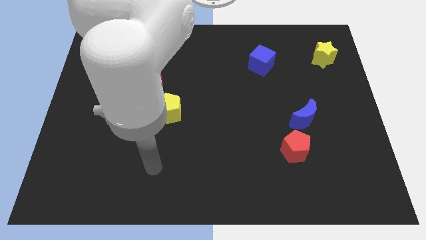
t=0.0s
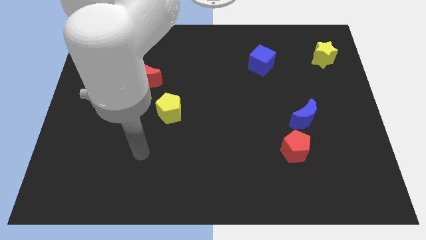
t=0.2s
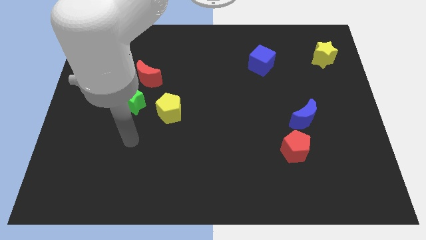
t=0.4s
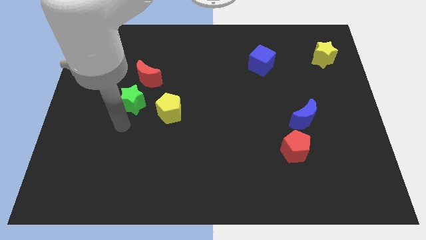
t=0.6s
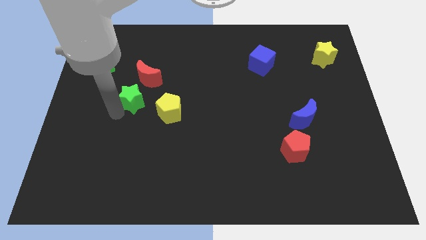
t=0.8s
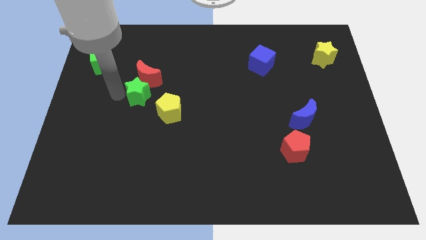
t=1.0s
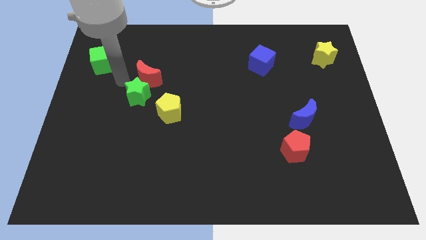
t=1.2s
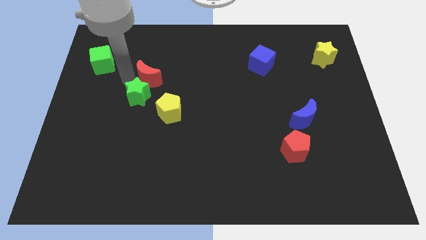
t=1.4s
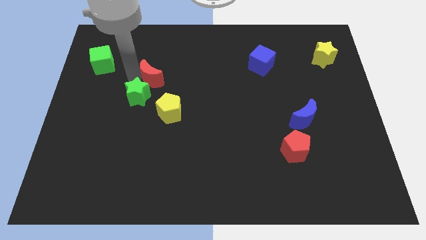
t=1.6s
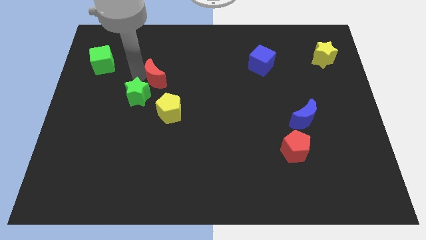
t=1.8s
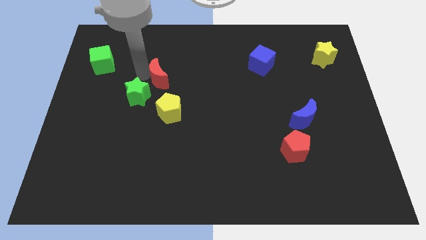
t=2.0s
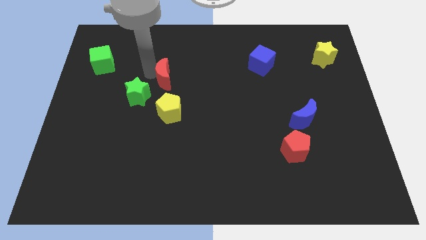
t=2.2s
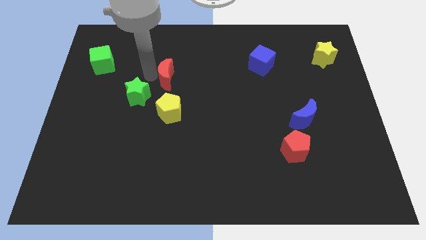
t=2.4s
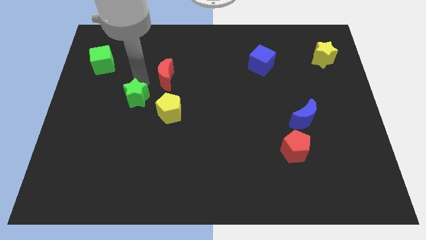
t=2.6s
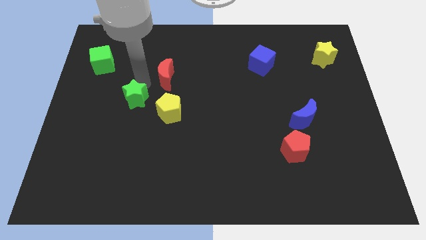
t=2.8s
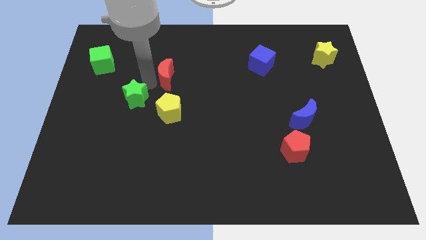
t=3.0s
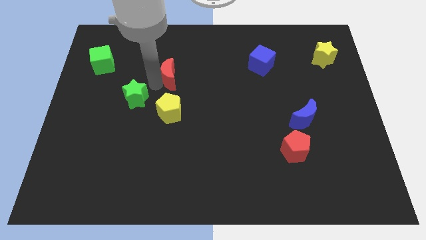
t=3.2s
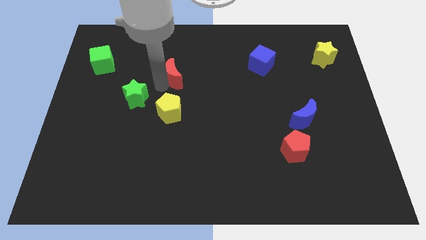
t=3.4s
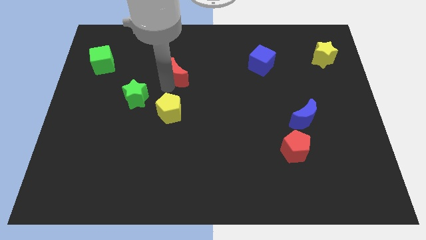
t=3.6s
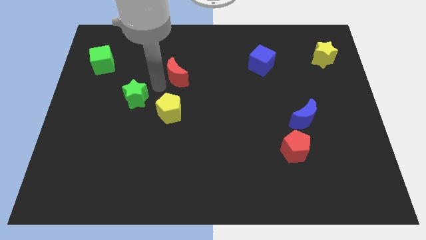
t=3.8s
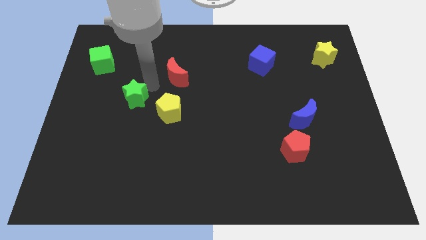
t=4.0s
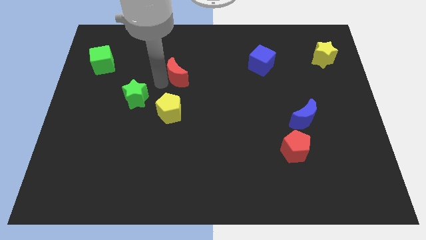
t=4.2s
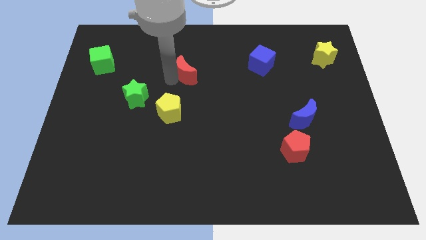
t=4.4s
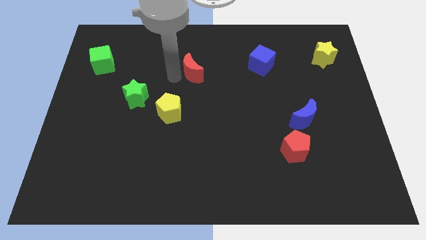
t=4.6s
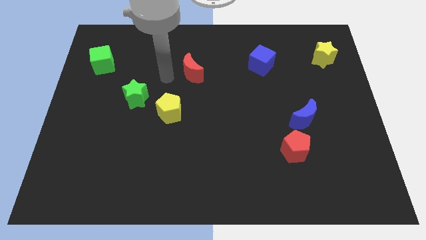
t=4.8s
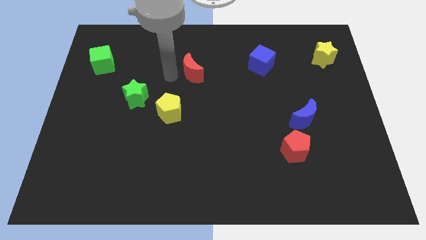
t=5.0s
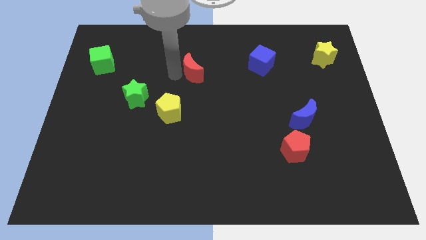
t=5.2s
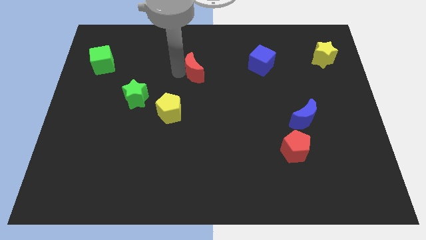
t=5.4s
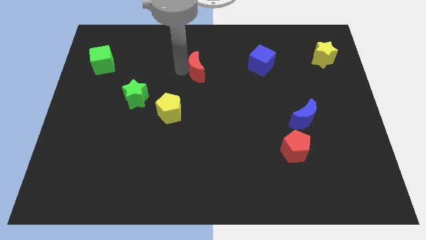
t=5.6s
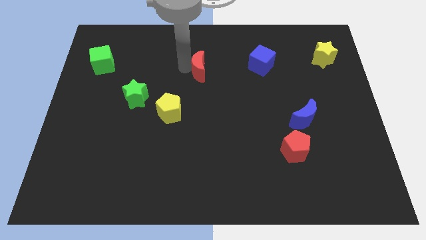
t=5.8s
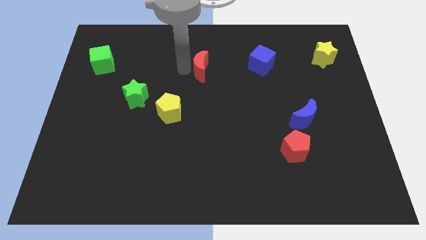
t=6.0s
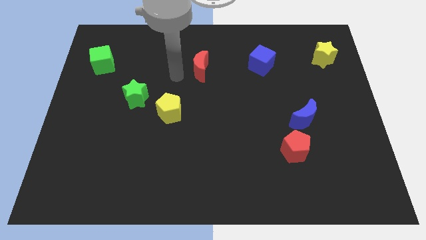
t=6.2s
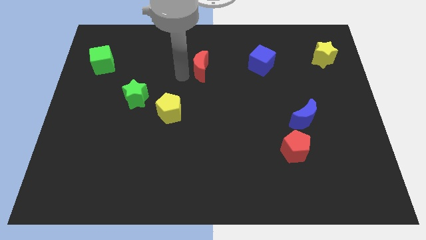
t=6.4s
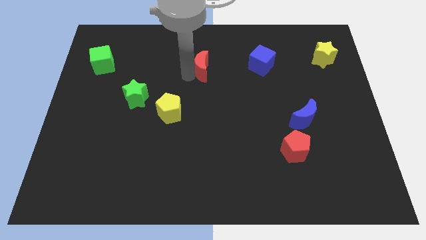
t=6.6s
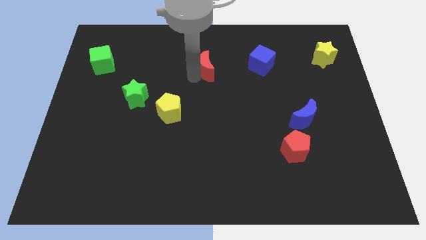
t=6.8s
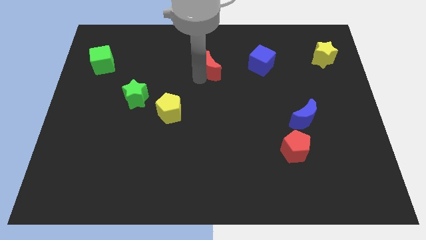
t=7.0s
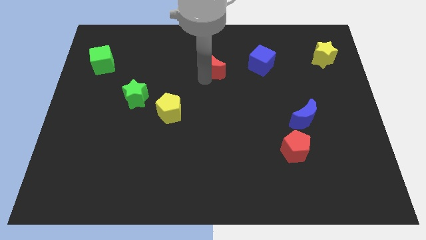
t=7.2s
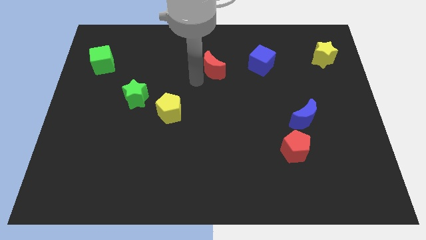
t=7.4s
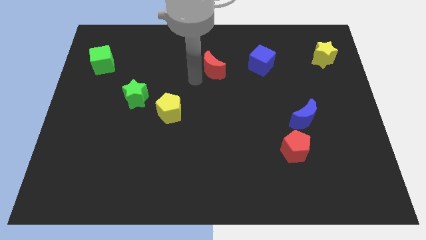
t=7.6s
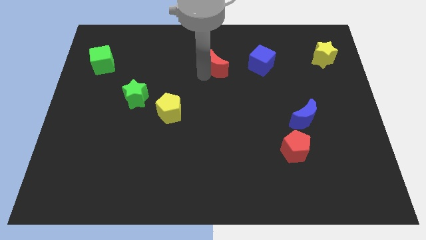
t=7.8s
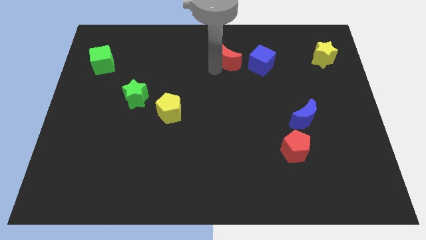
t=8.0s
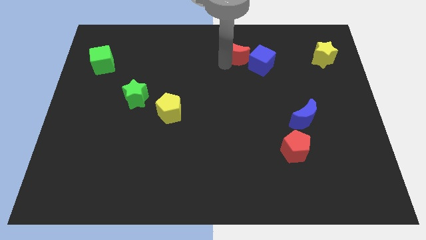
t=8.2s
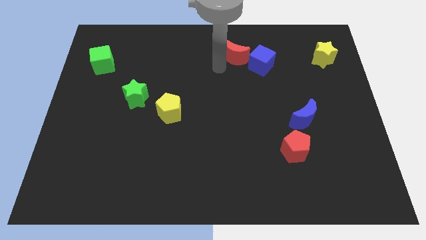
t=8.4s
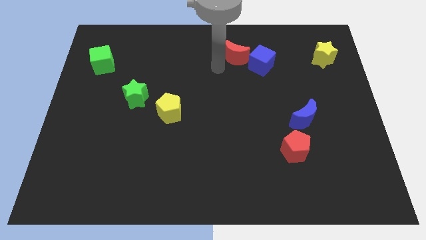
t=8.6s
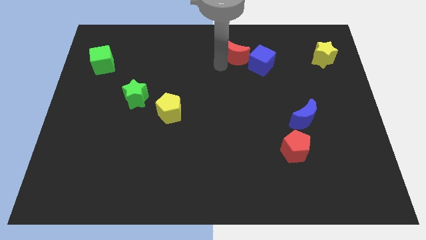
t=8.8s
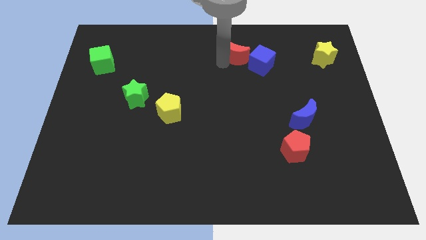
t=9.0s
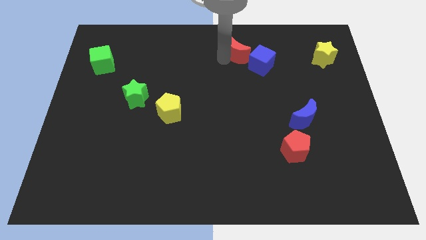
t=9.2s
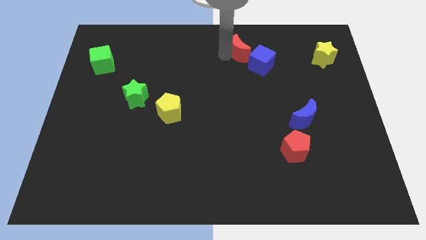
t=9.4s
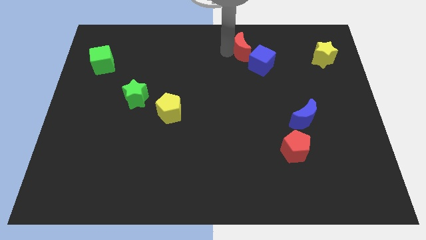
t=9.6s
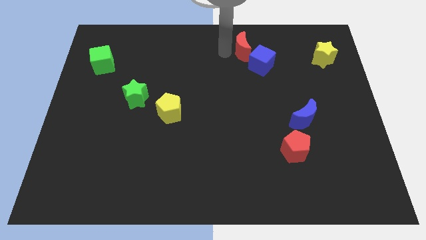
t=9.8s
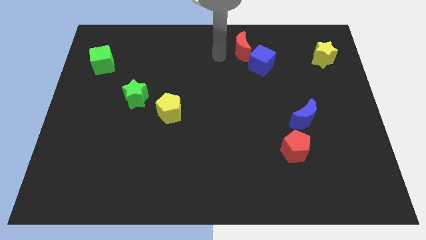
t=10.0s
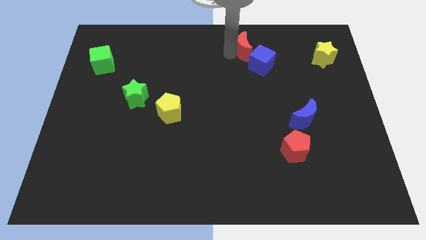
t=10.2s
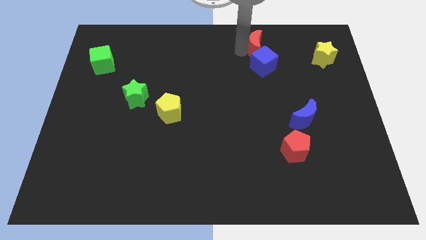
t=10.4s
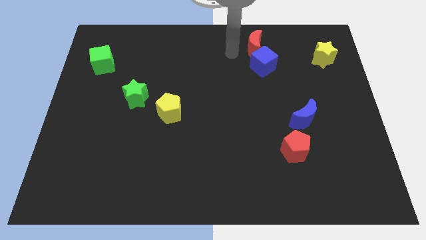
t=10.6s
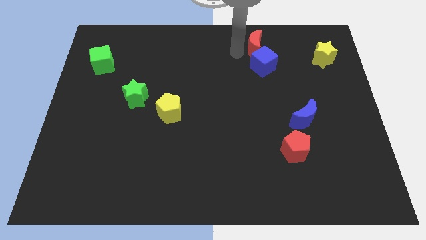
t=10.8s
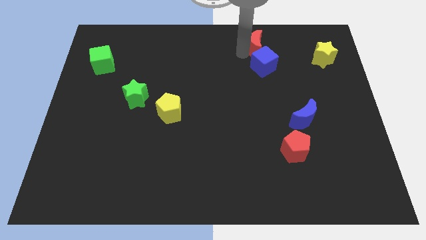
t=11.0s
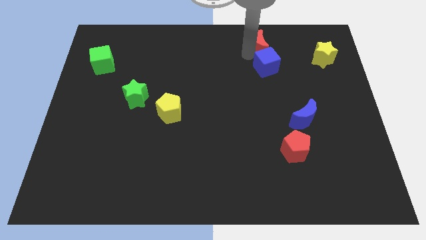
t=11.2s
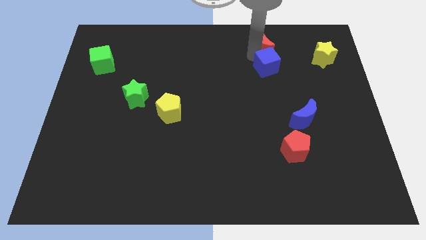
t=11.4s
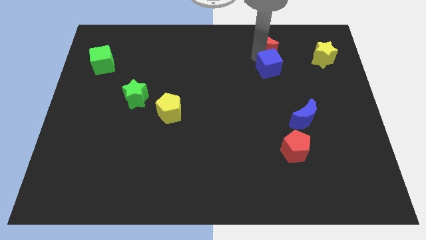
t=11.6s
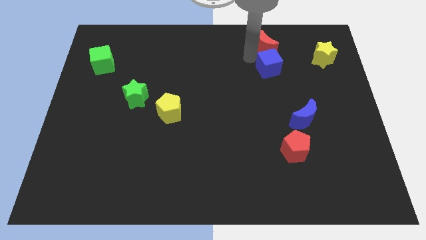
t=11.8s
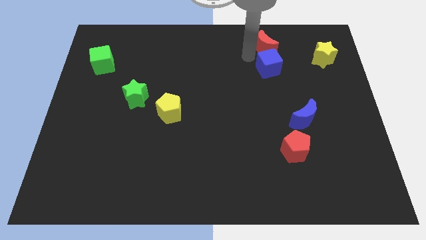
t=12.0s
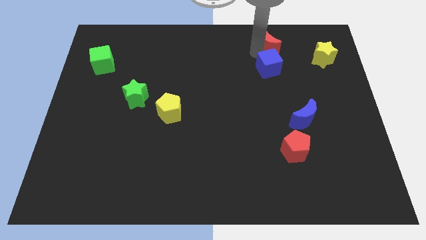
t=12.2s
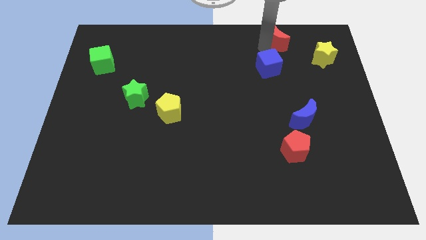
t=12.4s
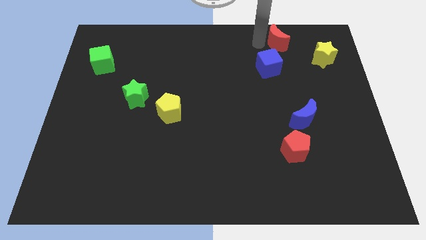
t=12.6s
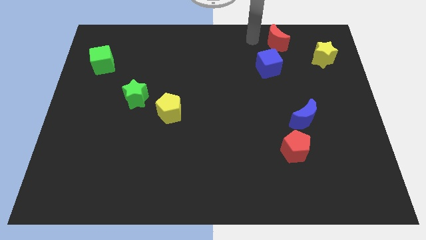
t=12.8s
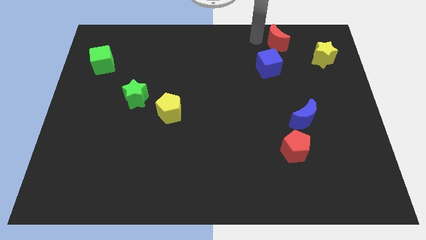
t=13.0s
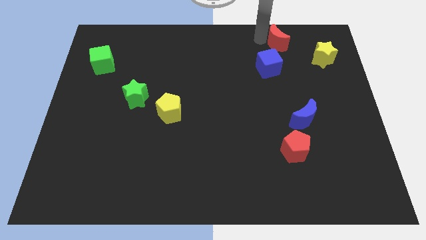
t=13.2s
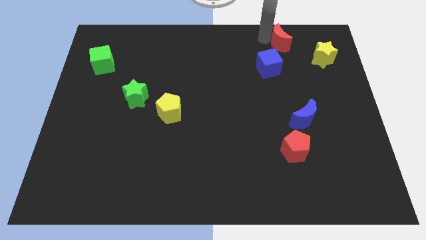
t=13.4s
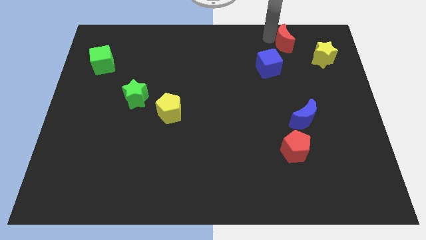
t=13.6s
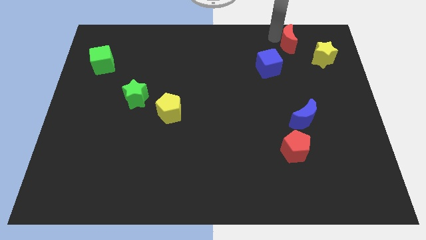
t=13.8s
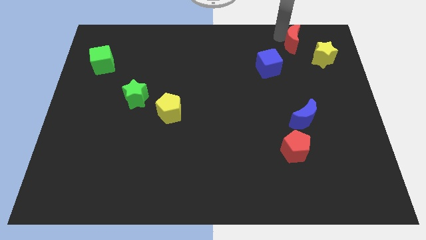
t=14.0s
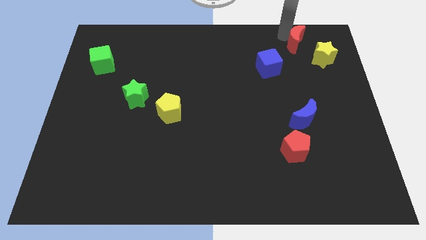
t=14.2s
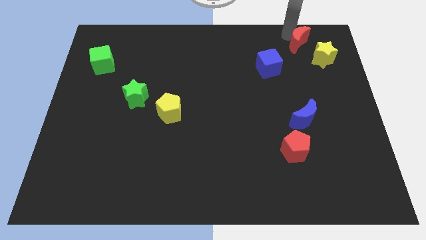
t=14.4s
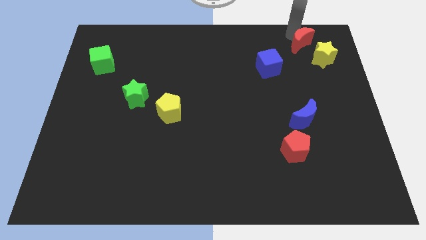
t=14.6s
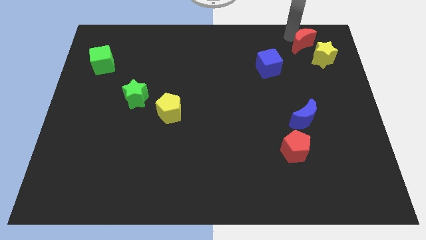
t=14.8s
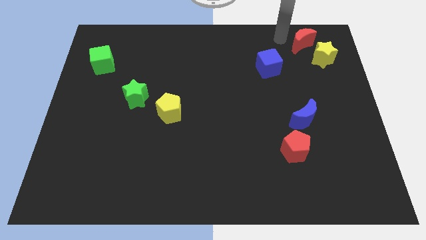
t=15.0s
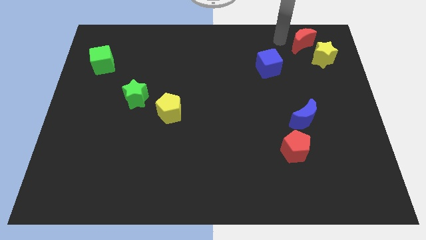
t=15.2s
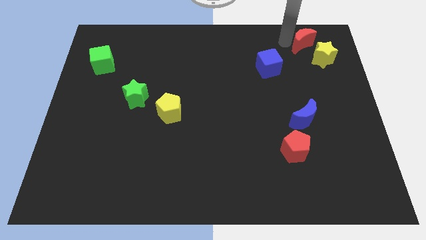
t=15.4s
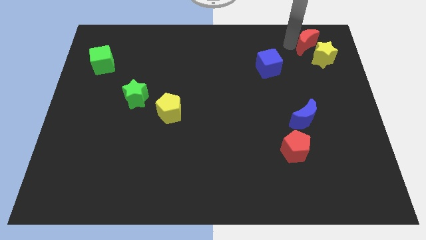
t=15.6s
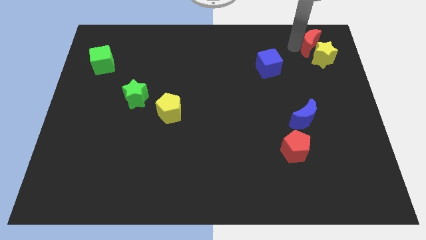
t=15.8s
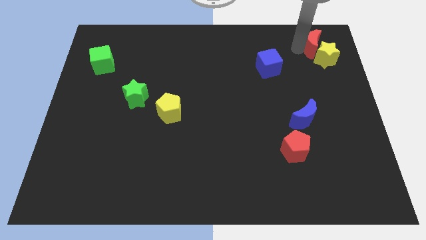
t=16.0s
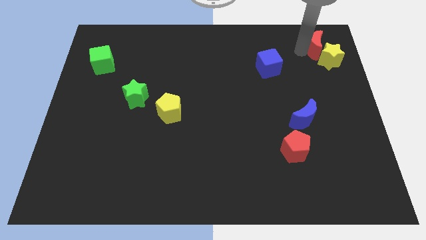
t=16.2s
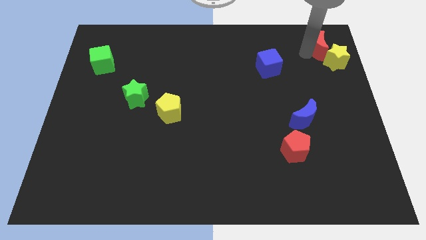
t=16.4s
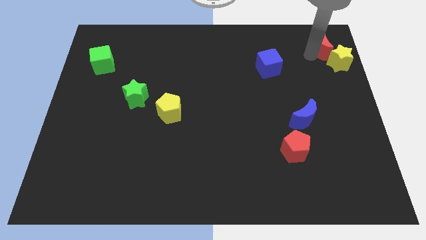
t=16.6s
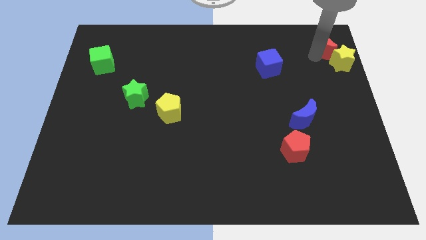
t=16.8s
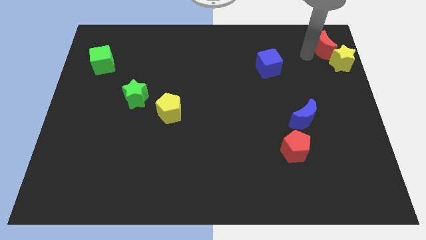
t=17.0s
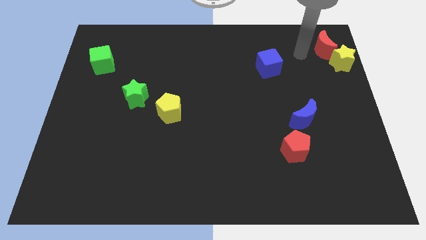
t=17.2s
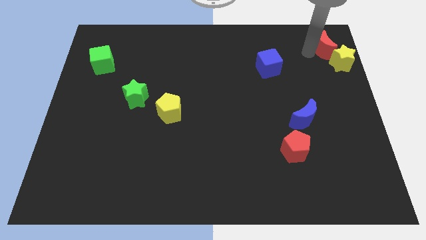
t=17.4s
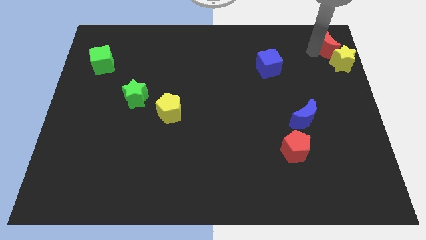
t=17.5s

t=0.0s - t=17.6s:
move the red moon to the upper right corner
